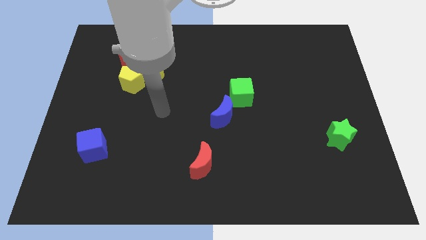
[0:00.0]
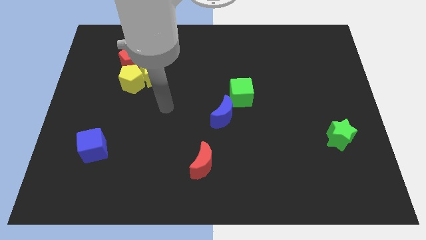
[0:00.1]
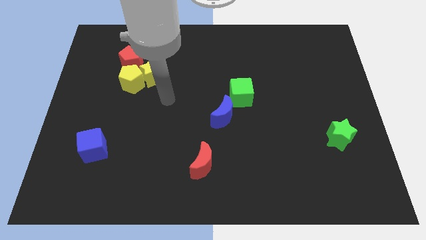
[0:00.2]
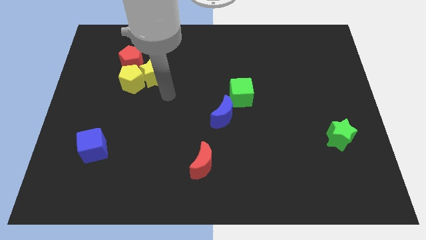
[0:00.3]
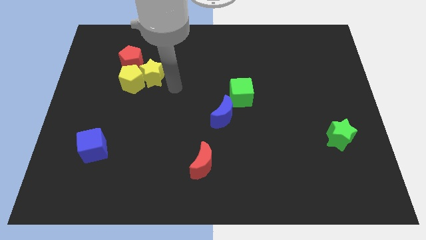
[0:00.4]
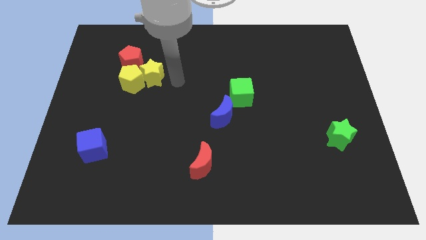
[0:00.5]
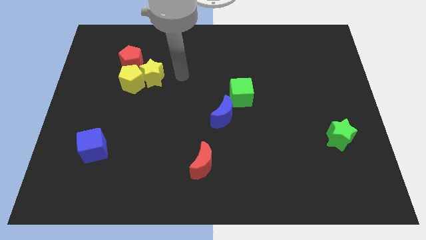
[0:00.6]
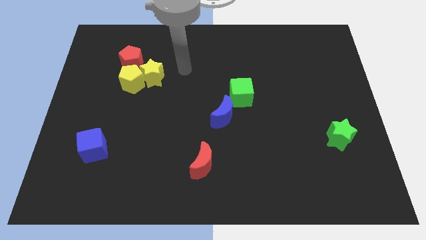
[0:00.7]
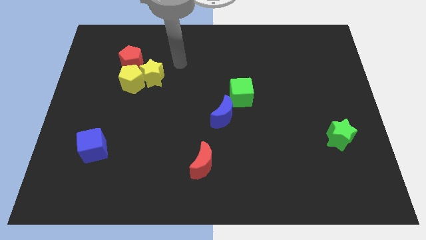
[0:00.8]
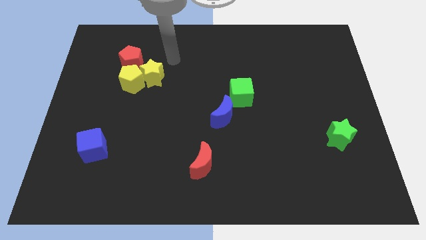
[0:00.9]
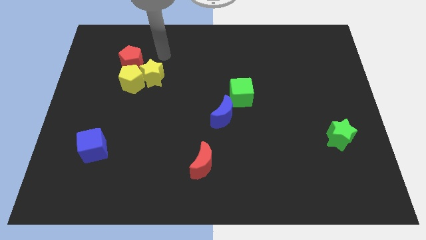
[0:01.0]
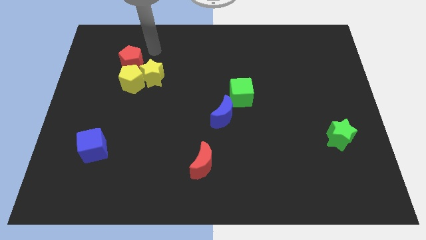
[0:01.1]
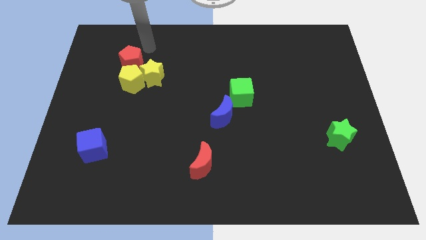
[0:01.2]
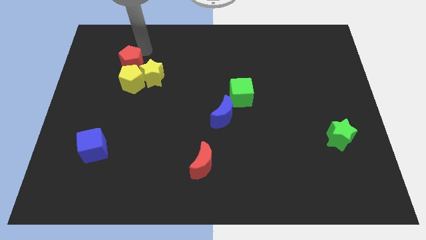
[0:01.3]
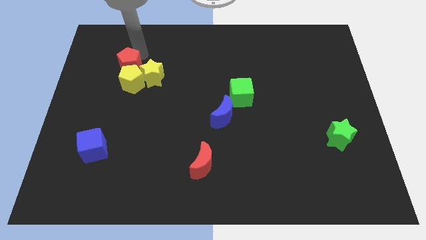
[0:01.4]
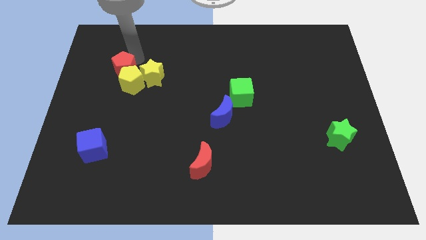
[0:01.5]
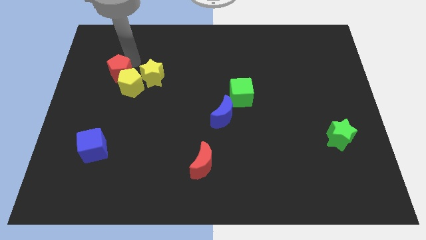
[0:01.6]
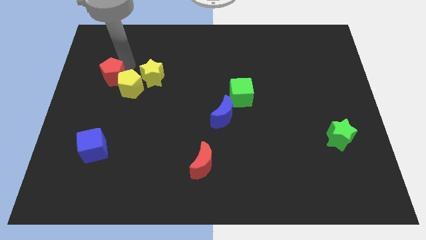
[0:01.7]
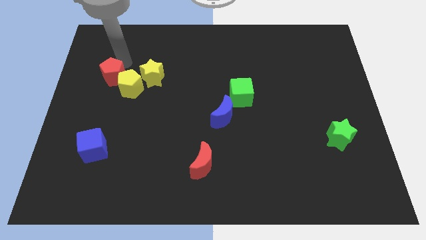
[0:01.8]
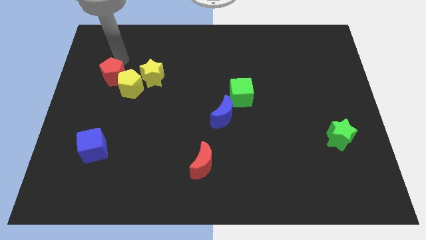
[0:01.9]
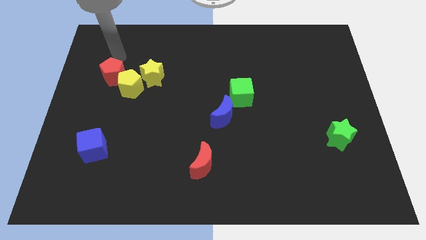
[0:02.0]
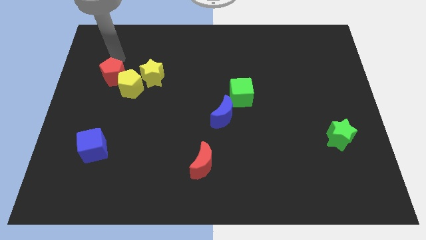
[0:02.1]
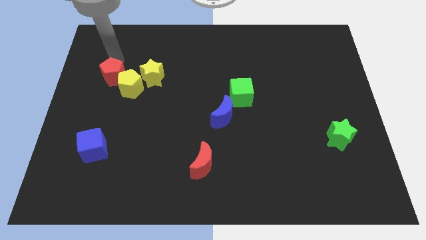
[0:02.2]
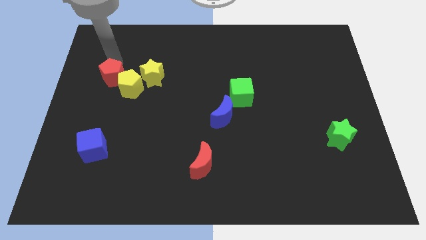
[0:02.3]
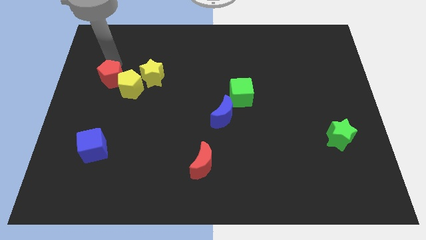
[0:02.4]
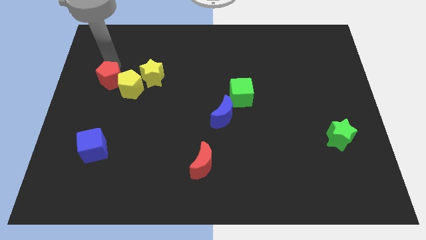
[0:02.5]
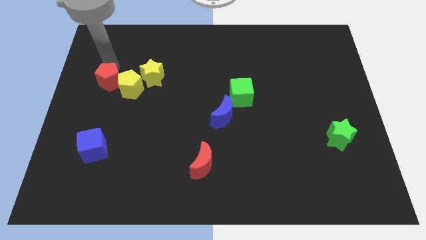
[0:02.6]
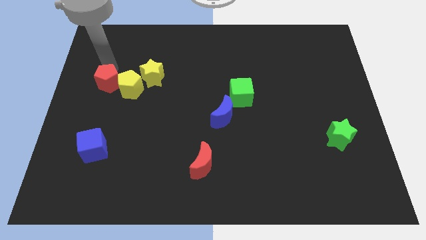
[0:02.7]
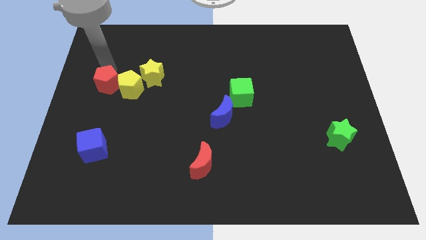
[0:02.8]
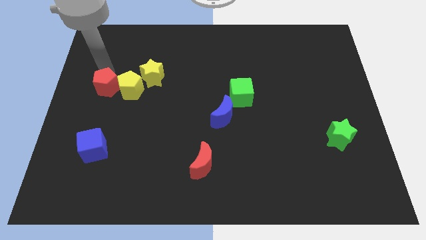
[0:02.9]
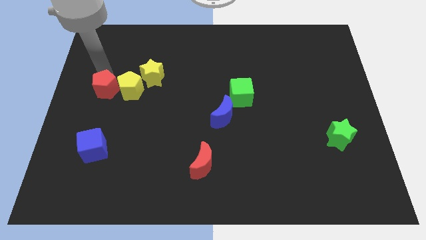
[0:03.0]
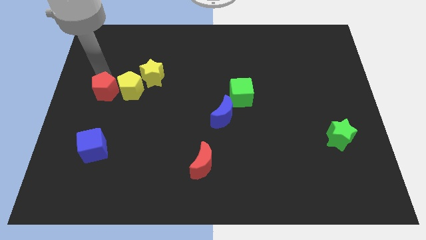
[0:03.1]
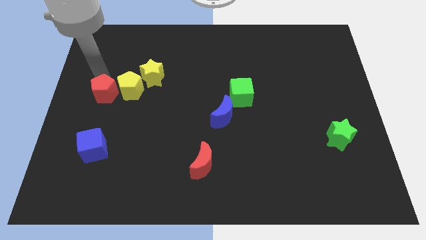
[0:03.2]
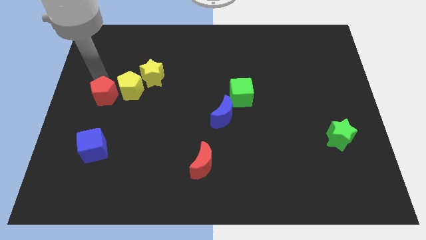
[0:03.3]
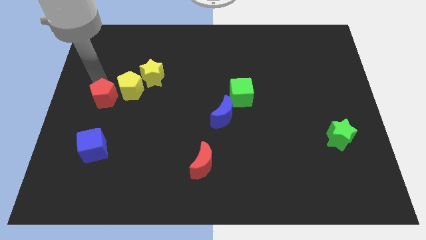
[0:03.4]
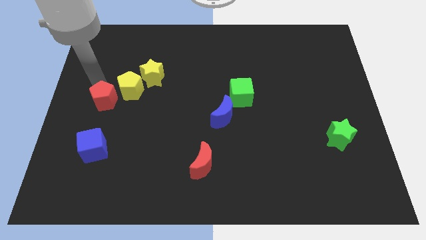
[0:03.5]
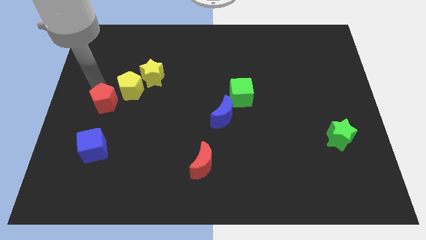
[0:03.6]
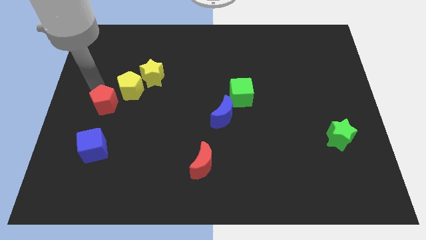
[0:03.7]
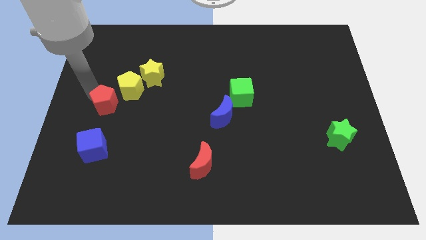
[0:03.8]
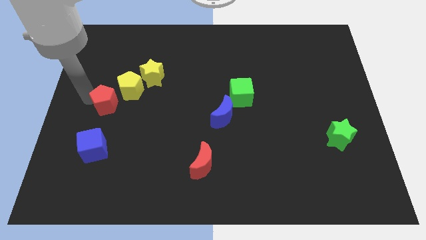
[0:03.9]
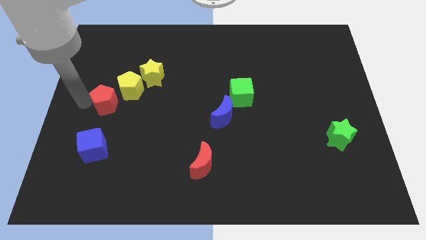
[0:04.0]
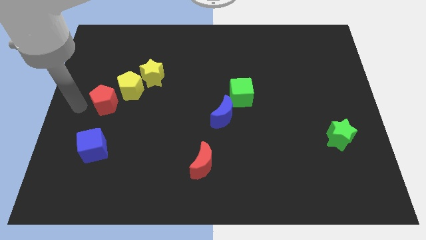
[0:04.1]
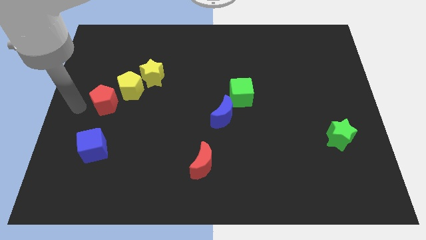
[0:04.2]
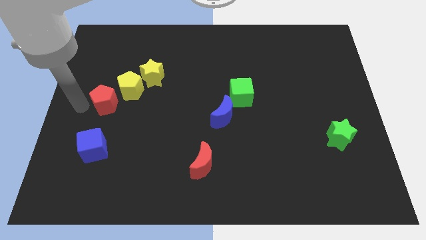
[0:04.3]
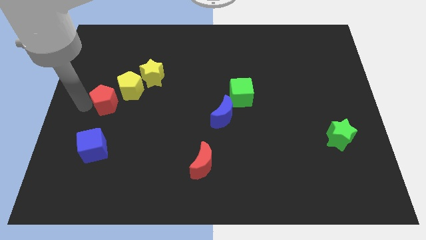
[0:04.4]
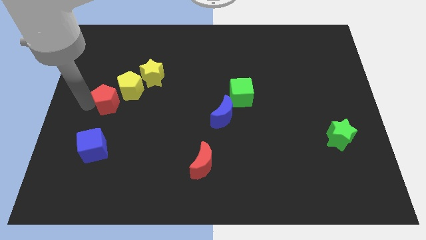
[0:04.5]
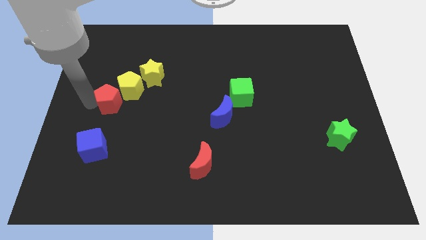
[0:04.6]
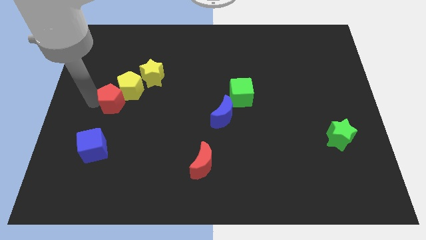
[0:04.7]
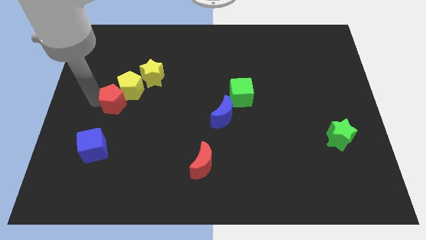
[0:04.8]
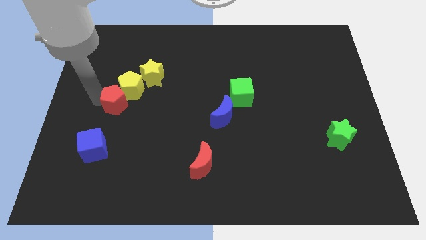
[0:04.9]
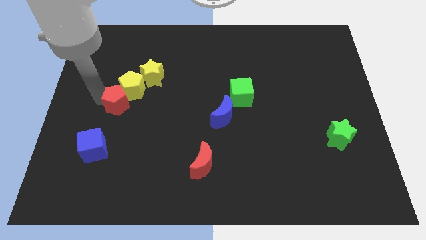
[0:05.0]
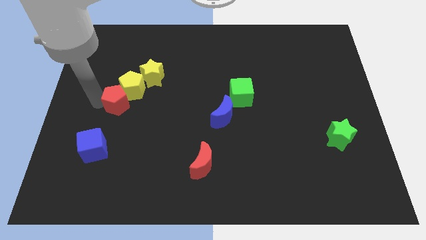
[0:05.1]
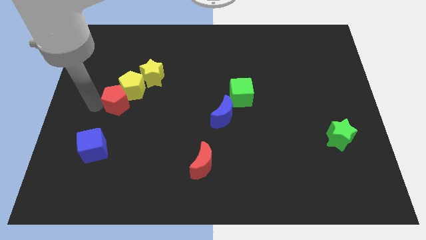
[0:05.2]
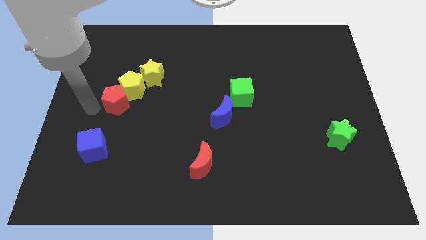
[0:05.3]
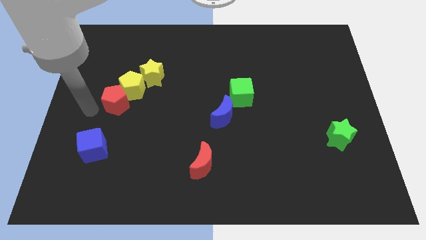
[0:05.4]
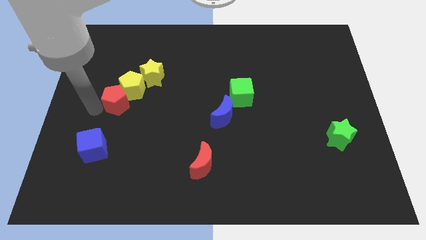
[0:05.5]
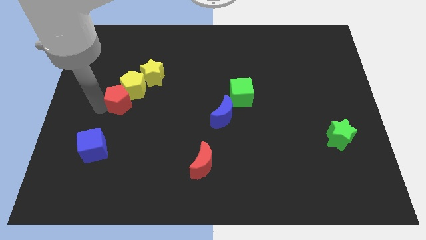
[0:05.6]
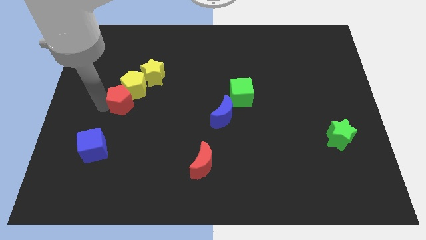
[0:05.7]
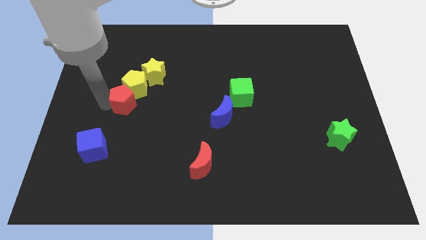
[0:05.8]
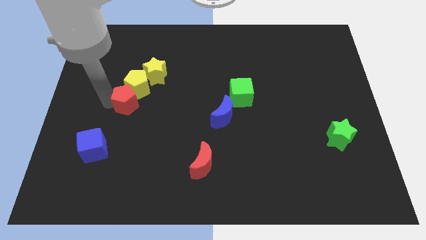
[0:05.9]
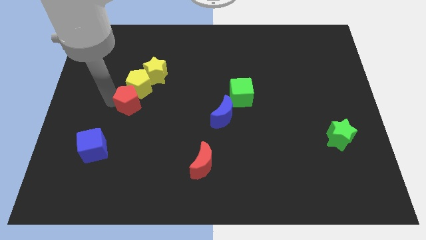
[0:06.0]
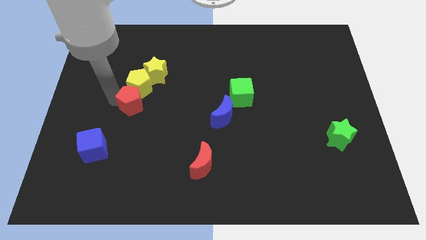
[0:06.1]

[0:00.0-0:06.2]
move the red pentagon to the bottom side of the yellow star

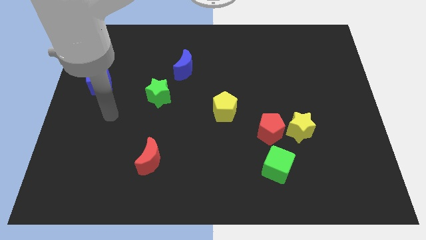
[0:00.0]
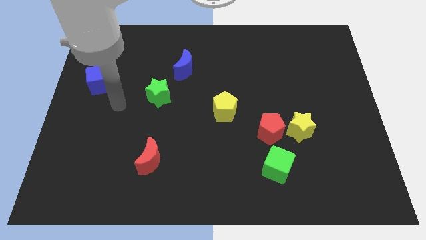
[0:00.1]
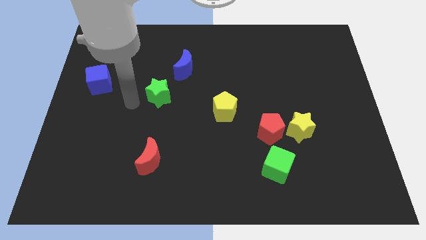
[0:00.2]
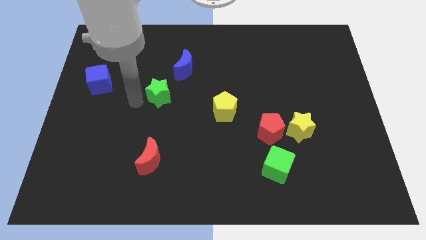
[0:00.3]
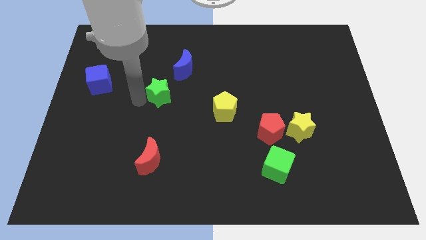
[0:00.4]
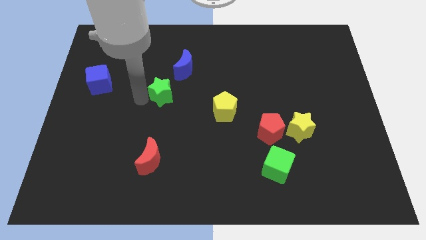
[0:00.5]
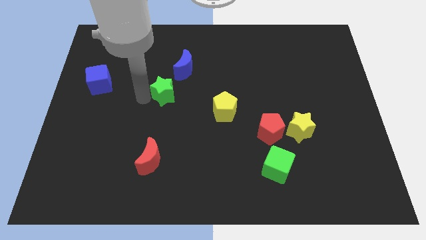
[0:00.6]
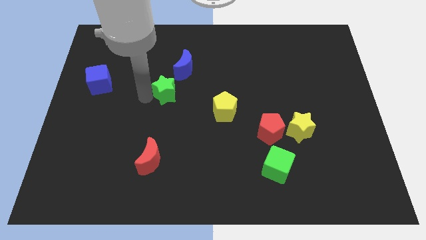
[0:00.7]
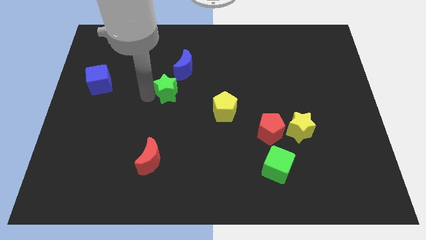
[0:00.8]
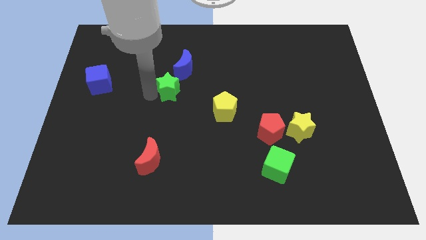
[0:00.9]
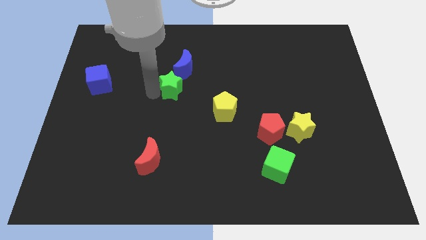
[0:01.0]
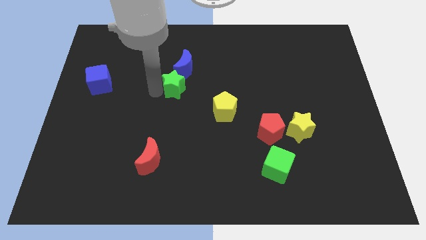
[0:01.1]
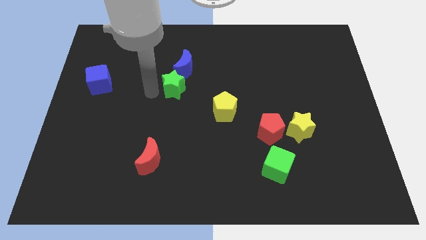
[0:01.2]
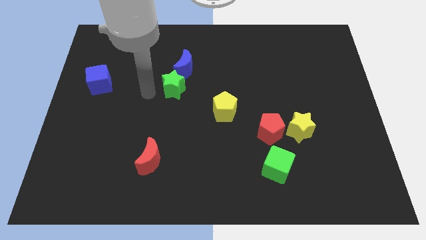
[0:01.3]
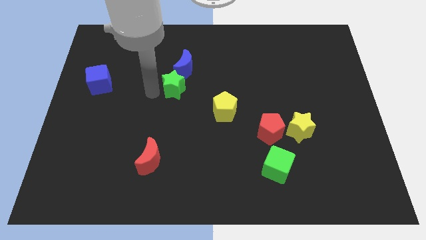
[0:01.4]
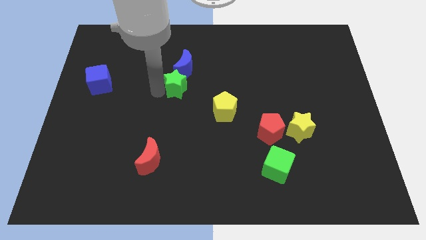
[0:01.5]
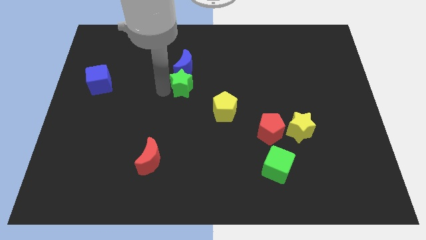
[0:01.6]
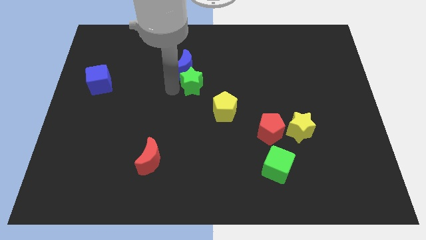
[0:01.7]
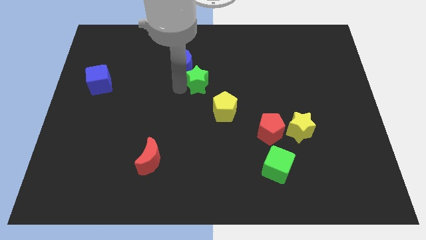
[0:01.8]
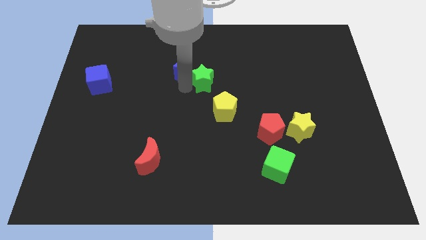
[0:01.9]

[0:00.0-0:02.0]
push the green star just right of the blue moon
